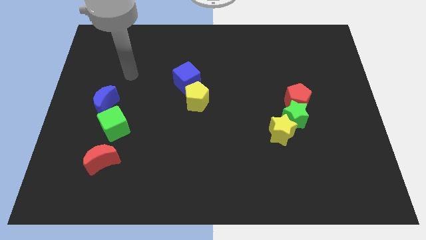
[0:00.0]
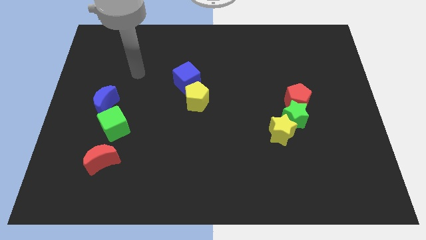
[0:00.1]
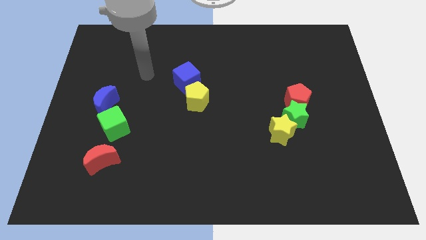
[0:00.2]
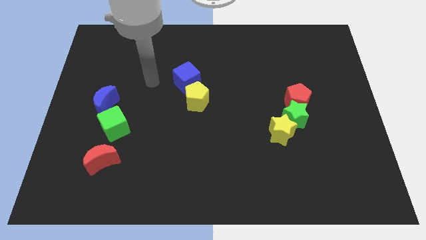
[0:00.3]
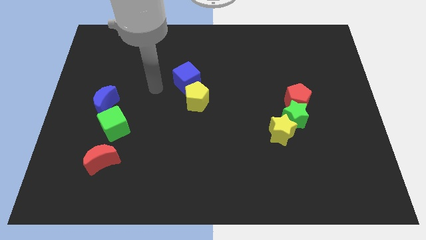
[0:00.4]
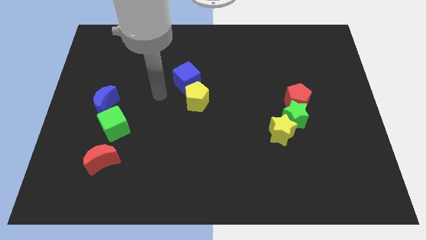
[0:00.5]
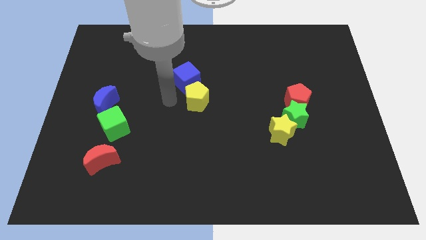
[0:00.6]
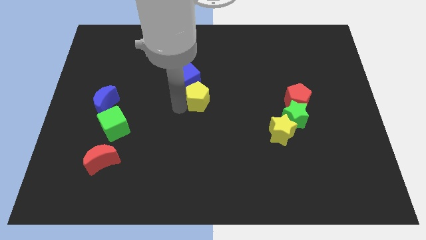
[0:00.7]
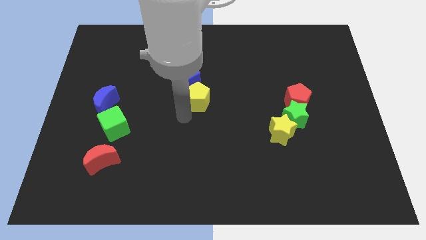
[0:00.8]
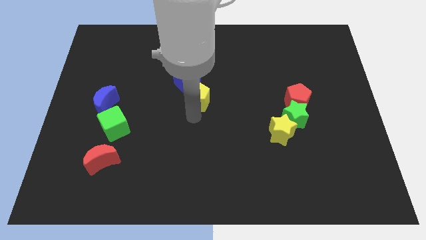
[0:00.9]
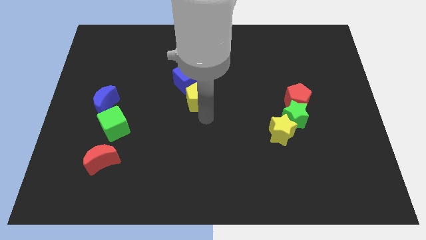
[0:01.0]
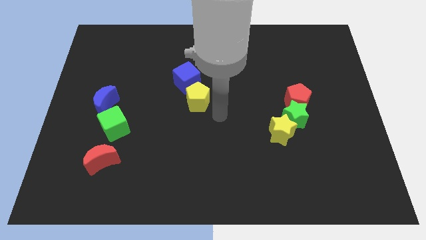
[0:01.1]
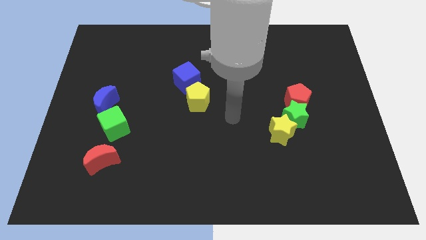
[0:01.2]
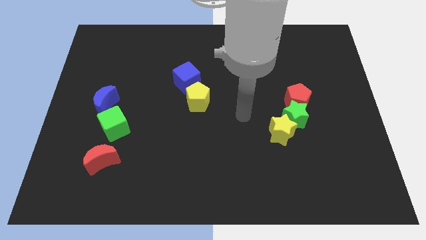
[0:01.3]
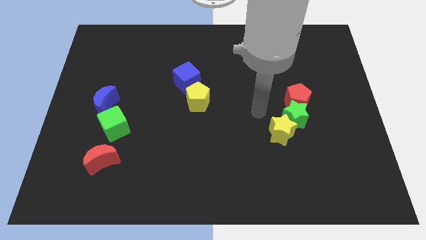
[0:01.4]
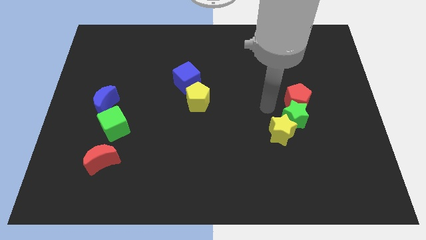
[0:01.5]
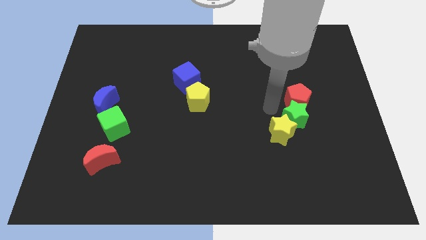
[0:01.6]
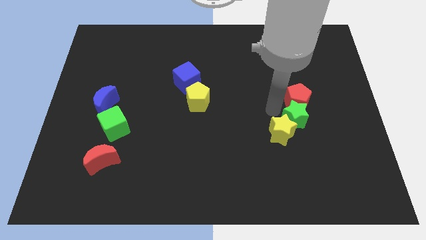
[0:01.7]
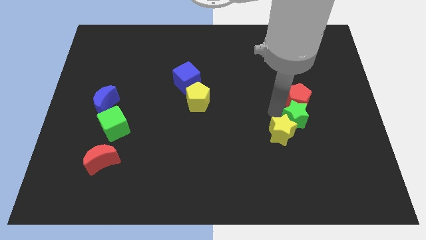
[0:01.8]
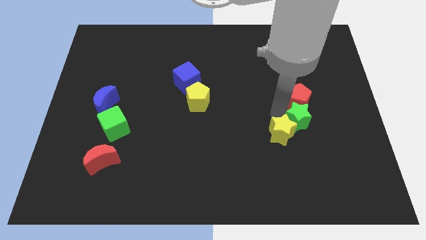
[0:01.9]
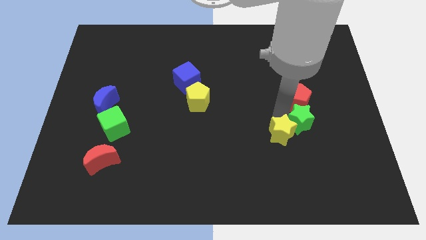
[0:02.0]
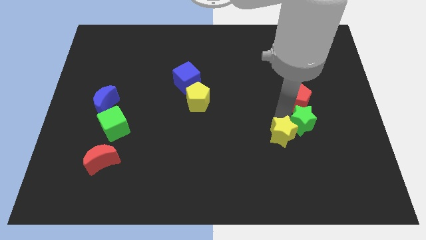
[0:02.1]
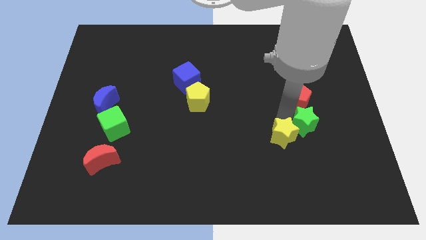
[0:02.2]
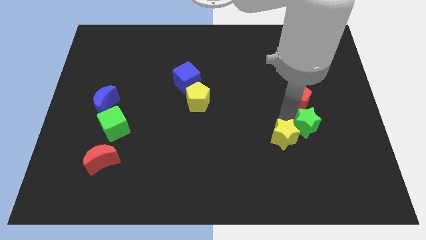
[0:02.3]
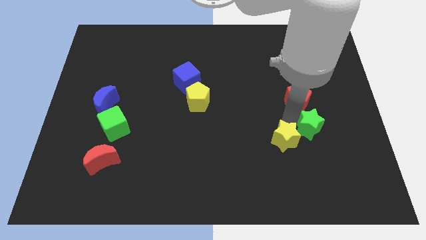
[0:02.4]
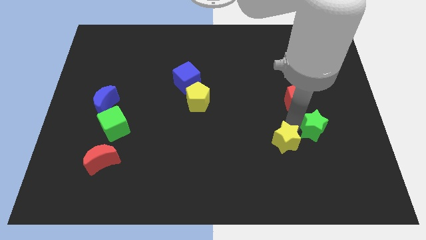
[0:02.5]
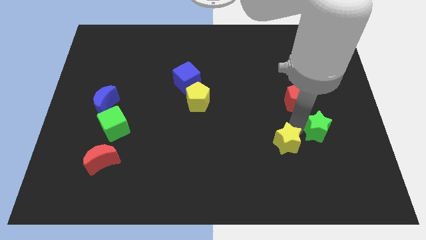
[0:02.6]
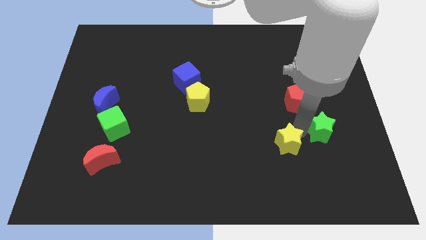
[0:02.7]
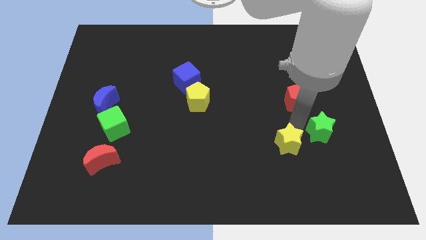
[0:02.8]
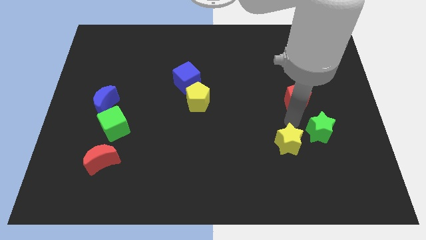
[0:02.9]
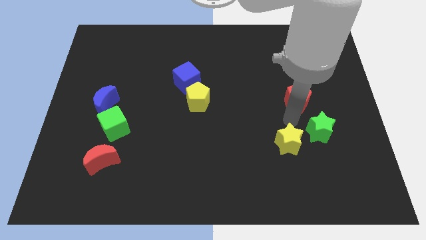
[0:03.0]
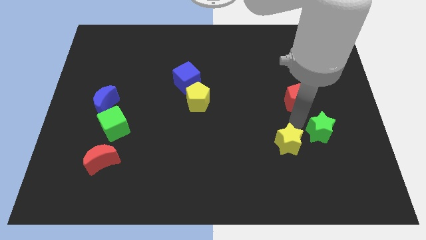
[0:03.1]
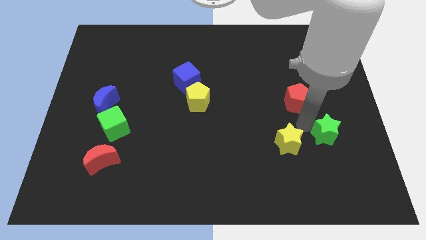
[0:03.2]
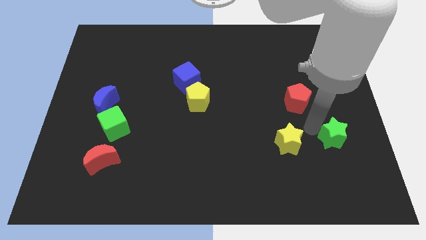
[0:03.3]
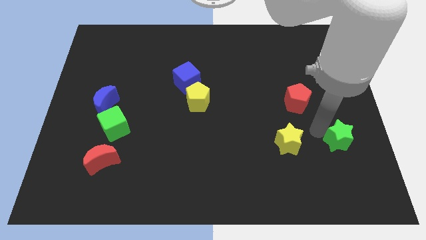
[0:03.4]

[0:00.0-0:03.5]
separate the green star from the red pentagon and yellow star

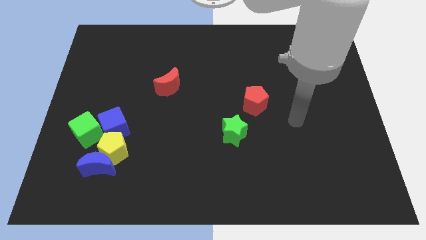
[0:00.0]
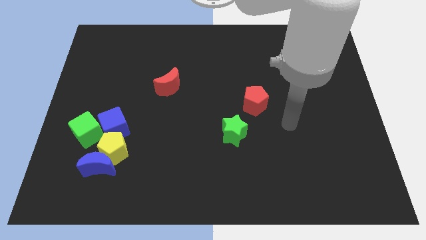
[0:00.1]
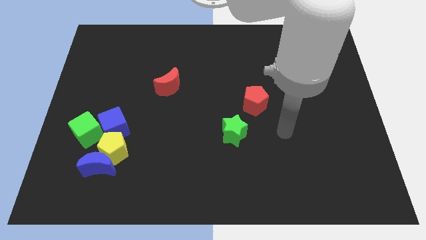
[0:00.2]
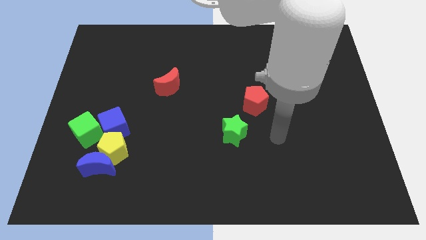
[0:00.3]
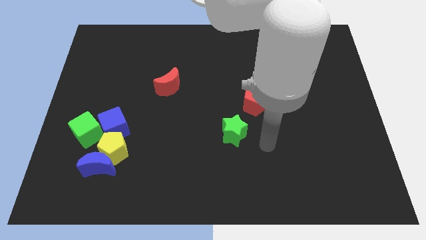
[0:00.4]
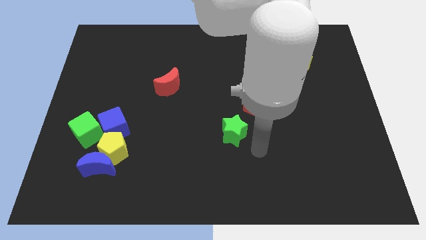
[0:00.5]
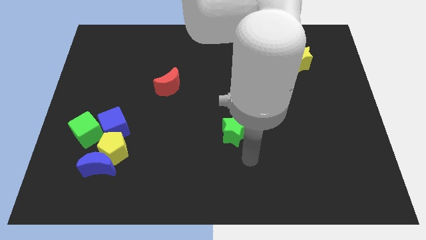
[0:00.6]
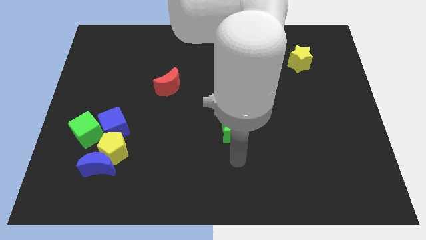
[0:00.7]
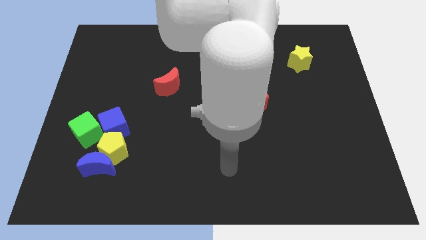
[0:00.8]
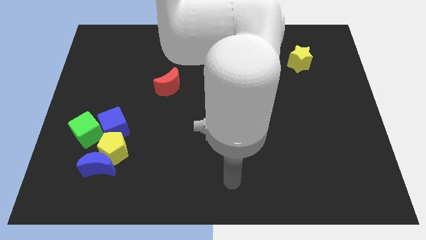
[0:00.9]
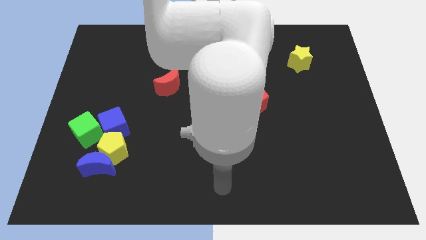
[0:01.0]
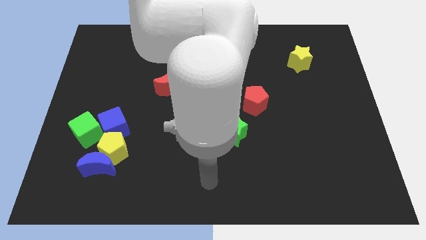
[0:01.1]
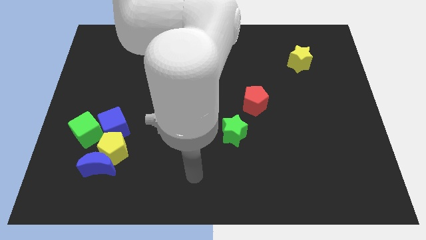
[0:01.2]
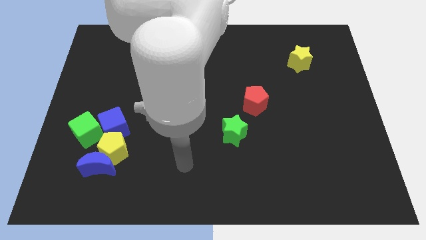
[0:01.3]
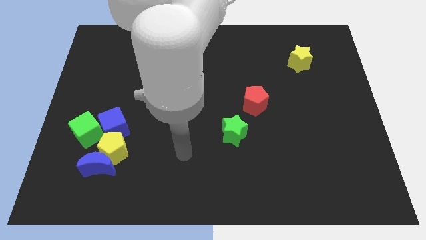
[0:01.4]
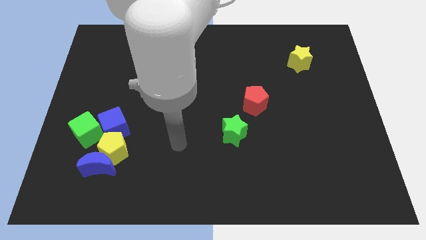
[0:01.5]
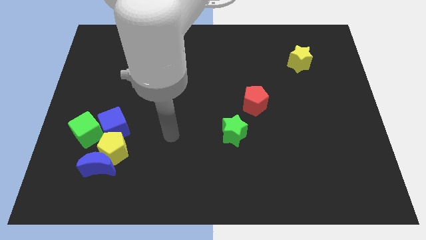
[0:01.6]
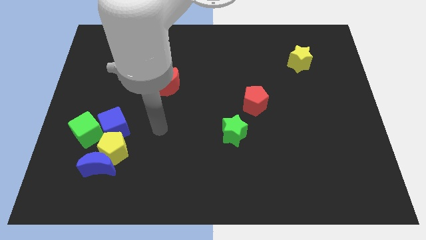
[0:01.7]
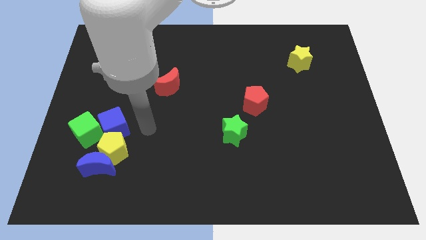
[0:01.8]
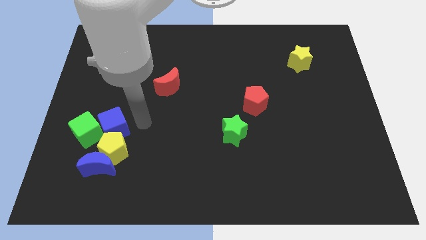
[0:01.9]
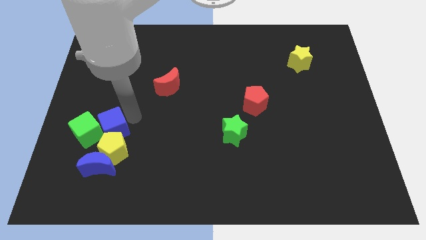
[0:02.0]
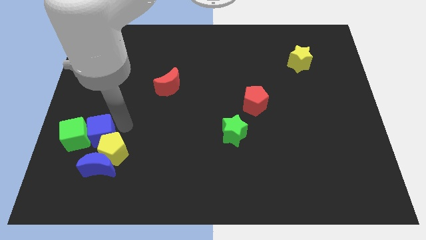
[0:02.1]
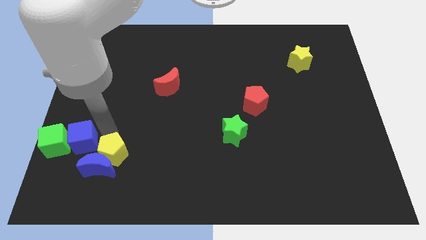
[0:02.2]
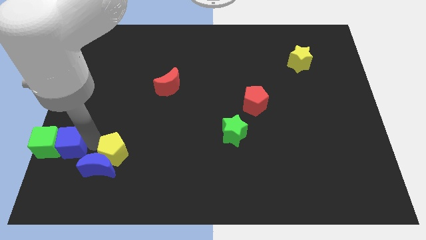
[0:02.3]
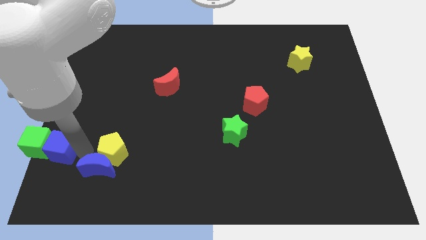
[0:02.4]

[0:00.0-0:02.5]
pull the yellow pentagon apart from the group of blocks

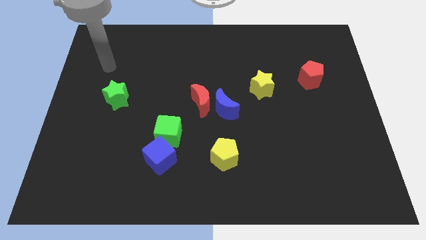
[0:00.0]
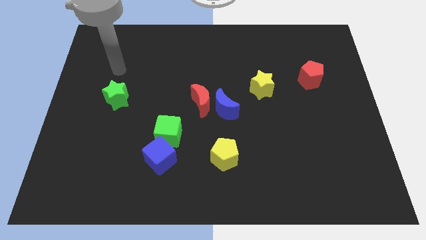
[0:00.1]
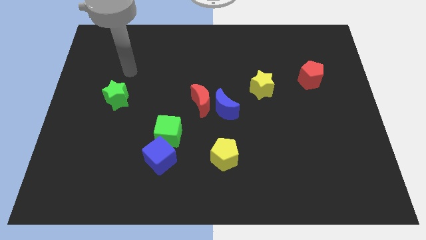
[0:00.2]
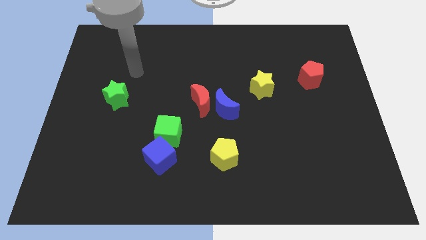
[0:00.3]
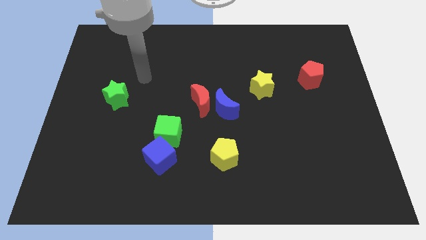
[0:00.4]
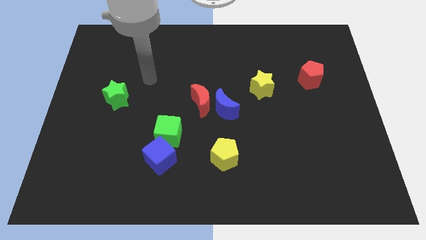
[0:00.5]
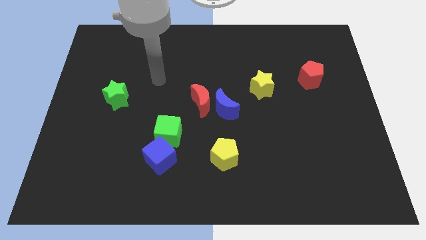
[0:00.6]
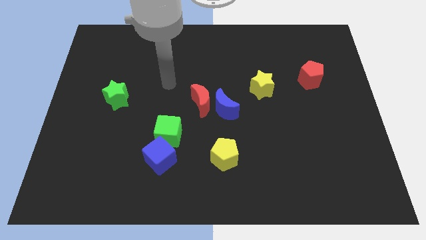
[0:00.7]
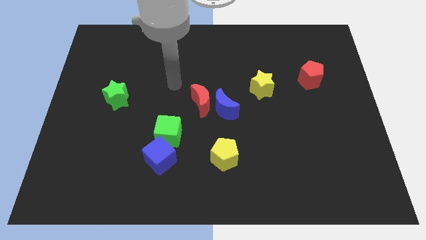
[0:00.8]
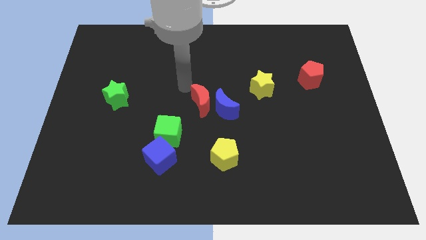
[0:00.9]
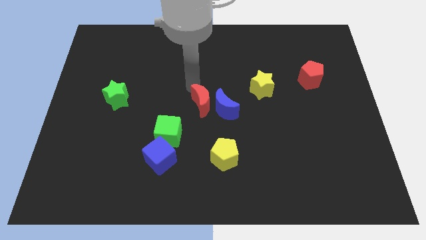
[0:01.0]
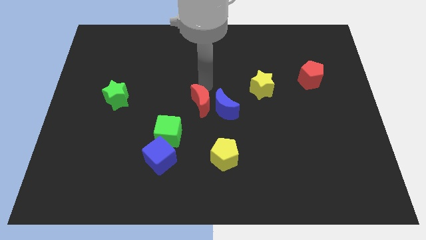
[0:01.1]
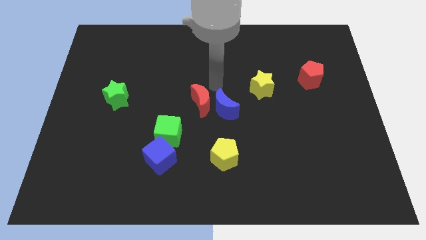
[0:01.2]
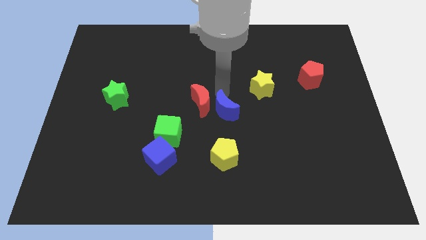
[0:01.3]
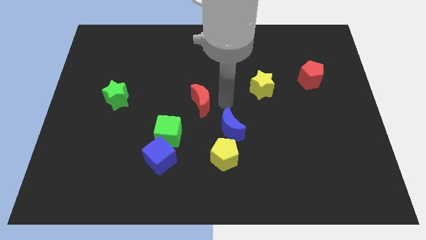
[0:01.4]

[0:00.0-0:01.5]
pull the red moon apart from the blue moon

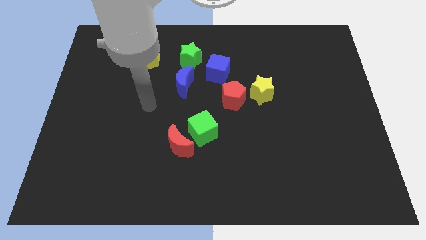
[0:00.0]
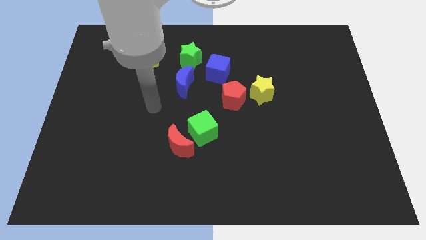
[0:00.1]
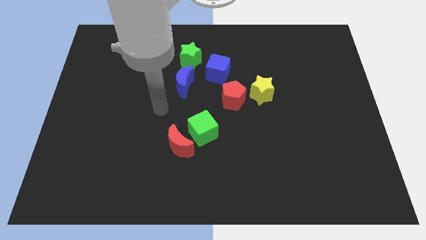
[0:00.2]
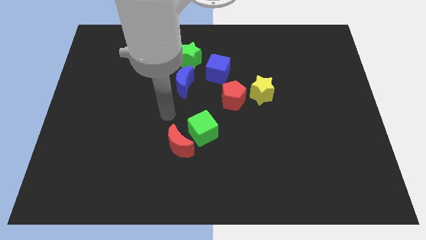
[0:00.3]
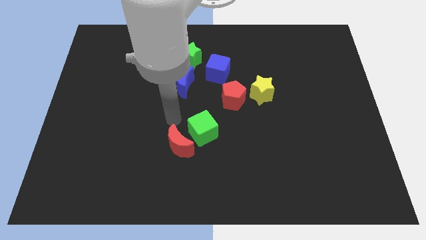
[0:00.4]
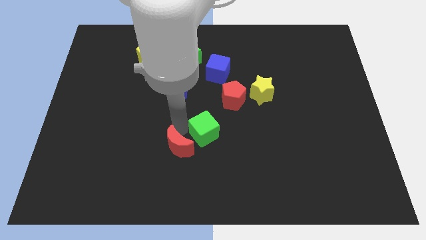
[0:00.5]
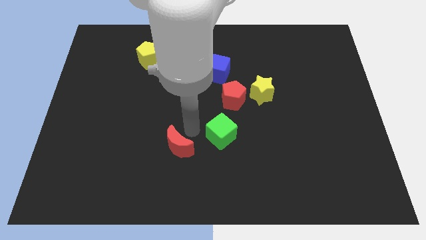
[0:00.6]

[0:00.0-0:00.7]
move the red moon away from the green cube

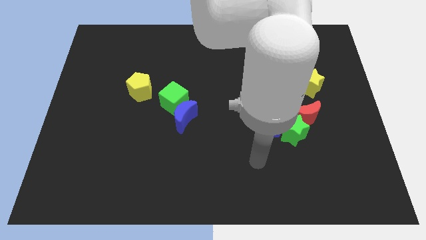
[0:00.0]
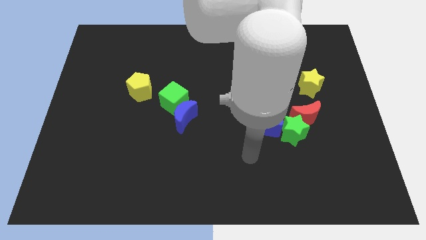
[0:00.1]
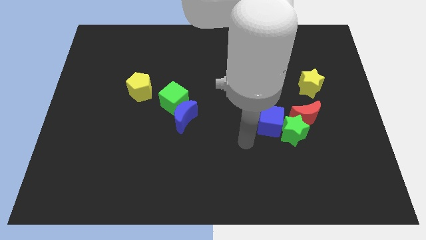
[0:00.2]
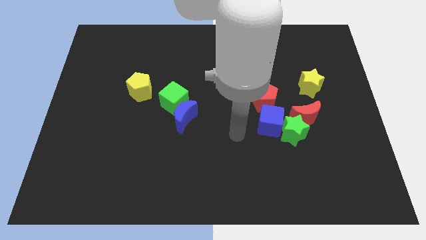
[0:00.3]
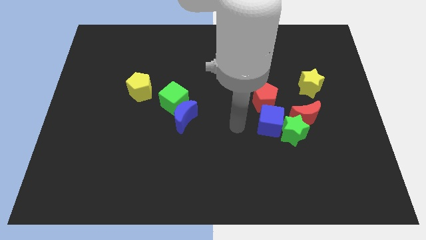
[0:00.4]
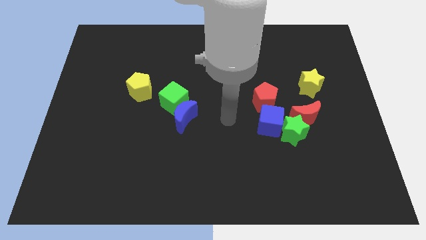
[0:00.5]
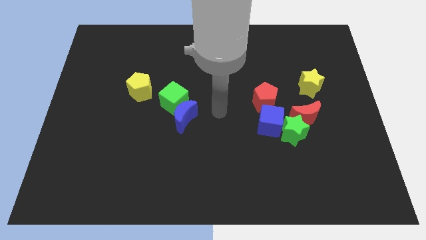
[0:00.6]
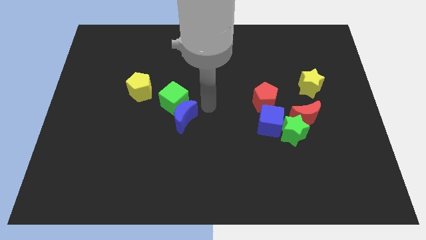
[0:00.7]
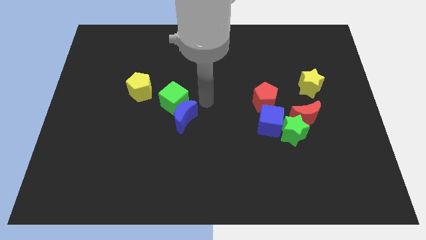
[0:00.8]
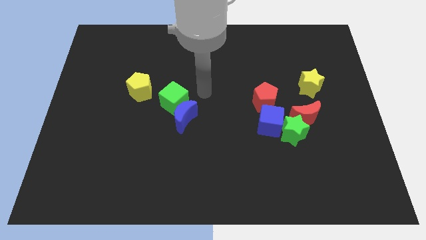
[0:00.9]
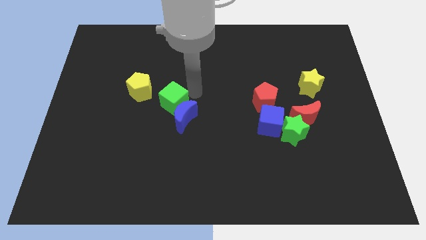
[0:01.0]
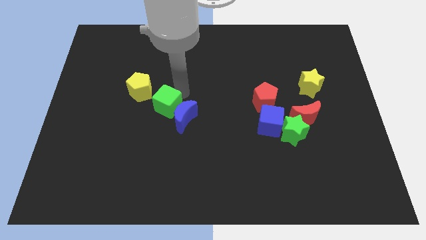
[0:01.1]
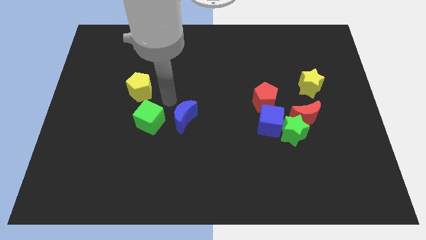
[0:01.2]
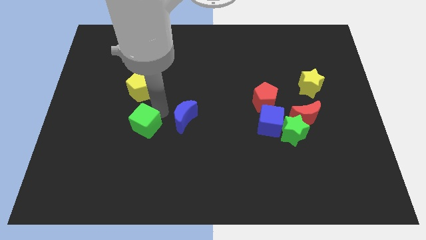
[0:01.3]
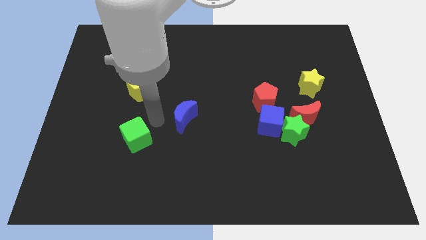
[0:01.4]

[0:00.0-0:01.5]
pull the blue moon apart from the green cube
